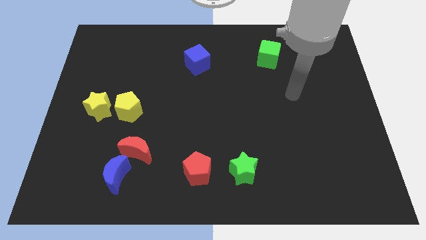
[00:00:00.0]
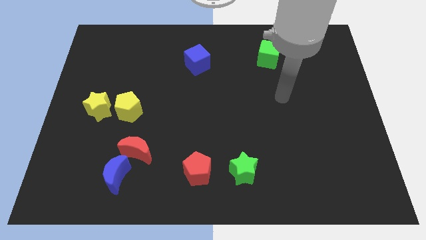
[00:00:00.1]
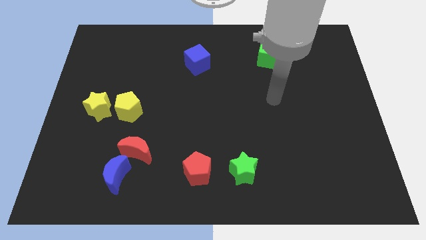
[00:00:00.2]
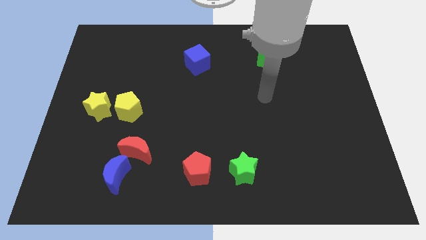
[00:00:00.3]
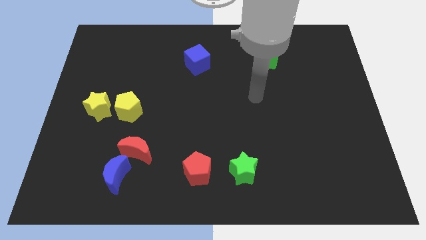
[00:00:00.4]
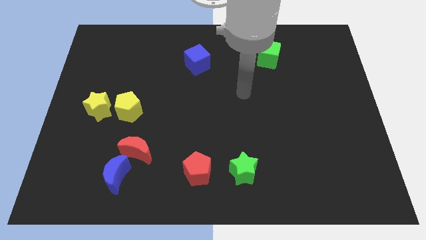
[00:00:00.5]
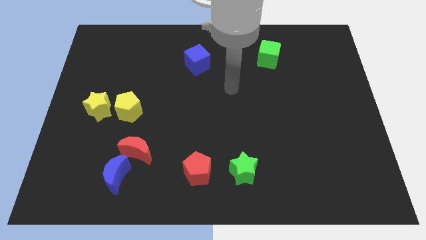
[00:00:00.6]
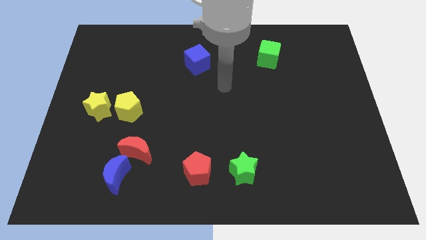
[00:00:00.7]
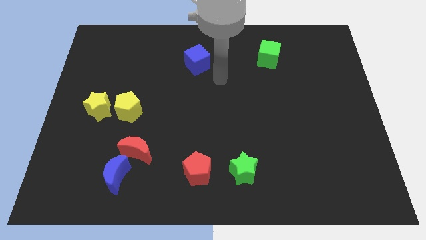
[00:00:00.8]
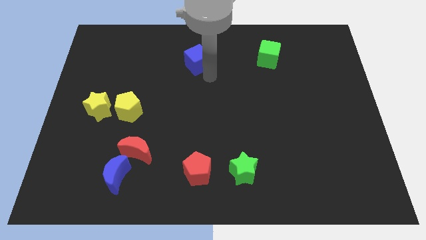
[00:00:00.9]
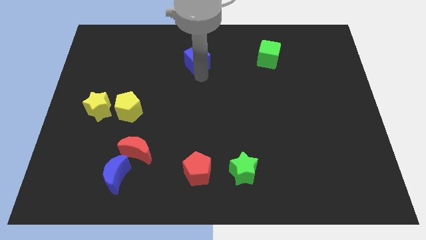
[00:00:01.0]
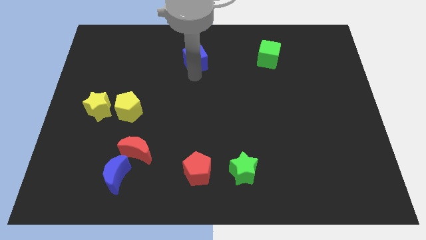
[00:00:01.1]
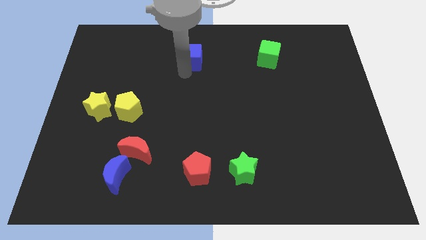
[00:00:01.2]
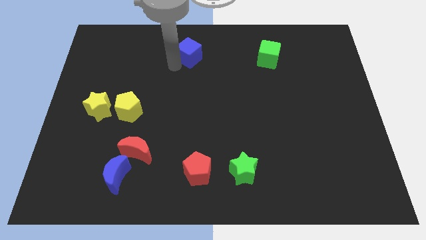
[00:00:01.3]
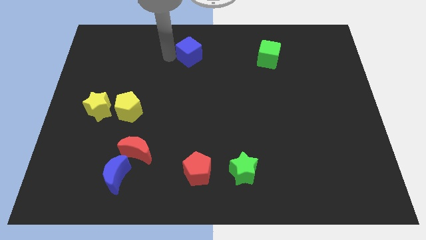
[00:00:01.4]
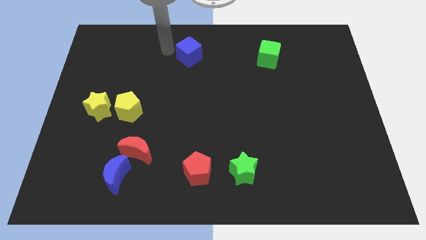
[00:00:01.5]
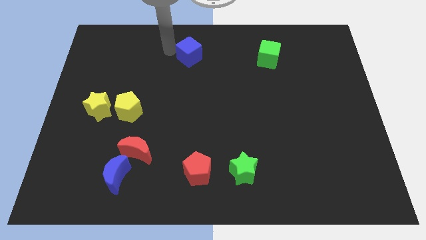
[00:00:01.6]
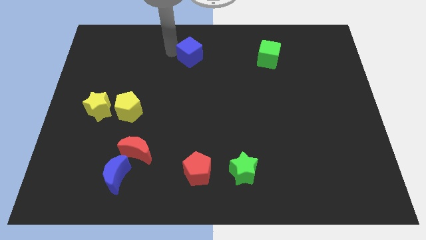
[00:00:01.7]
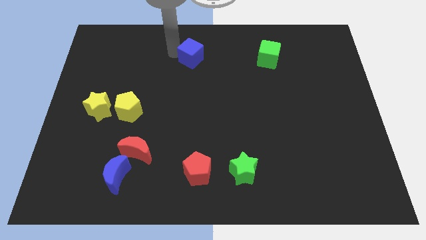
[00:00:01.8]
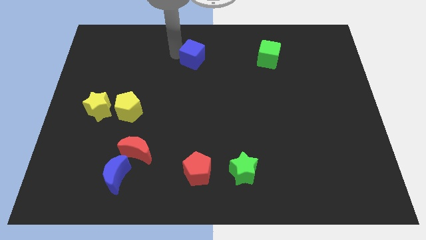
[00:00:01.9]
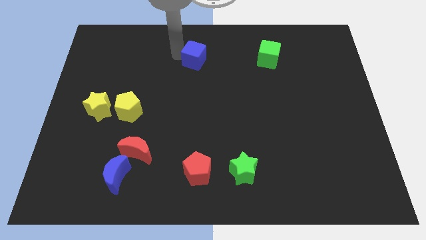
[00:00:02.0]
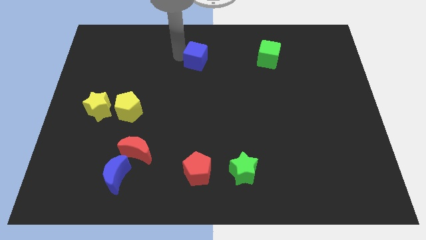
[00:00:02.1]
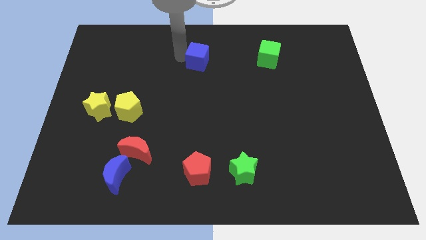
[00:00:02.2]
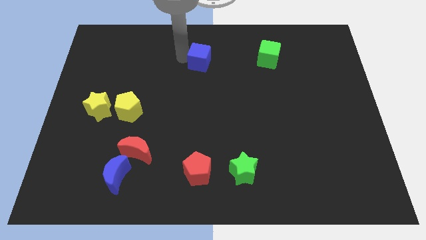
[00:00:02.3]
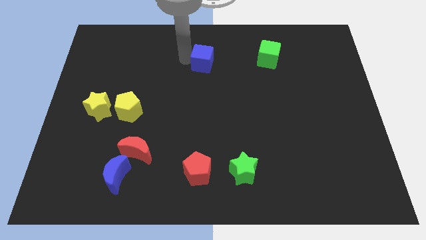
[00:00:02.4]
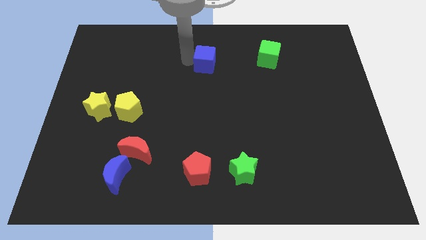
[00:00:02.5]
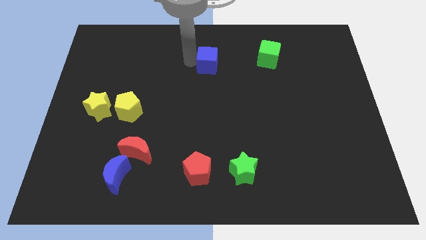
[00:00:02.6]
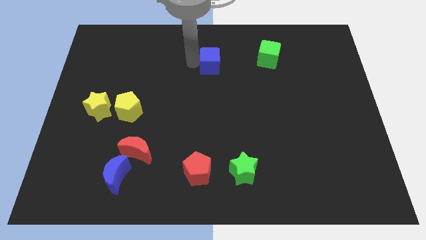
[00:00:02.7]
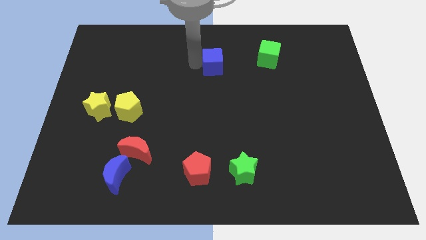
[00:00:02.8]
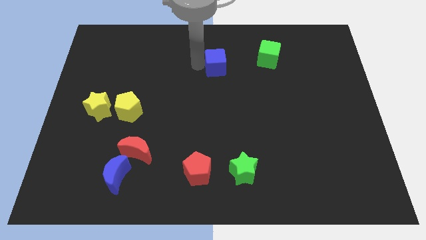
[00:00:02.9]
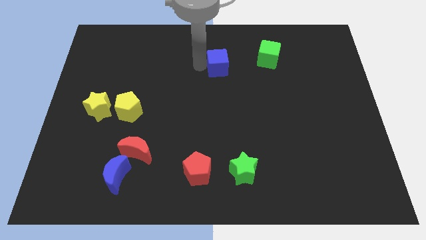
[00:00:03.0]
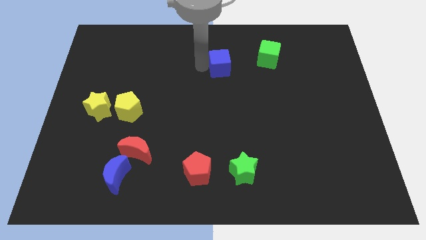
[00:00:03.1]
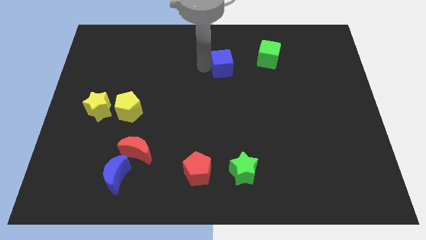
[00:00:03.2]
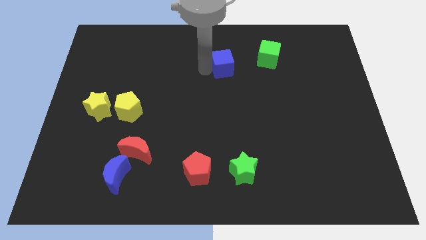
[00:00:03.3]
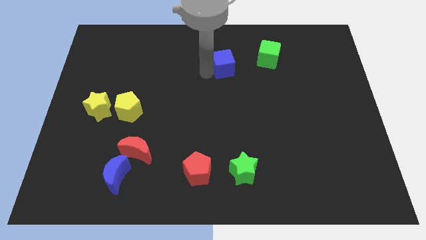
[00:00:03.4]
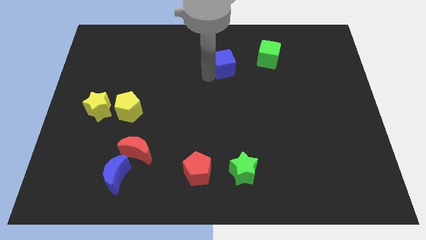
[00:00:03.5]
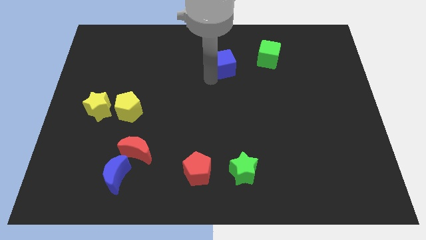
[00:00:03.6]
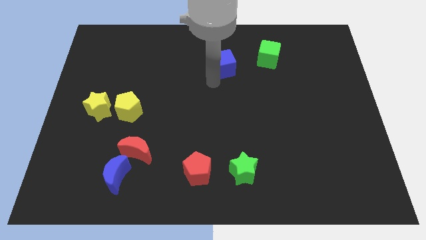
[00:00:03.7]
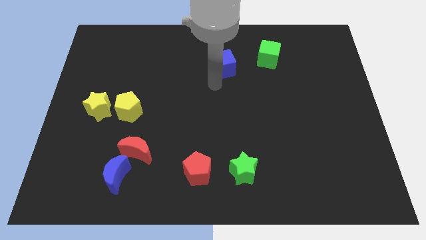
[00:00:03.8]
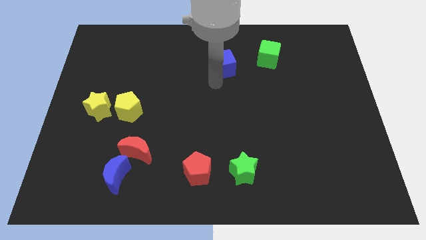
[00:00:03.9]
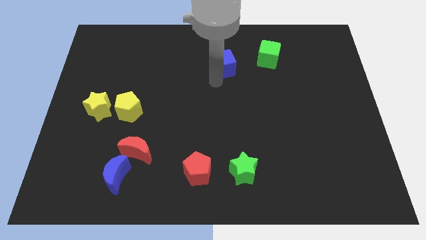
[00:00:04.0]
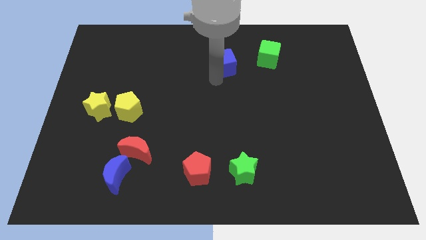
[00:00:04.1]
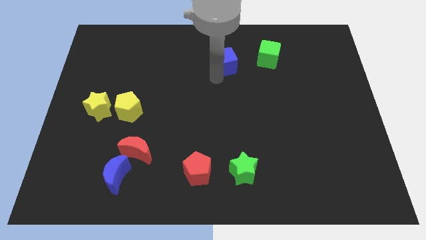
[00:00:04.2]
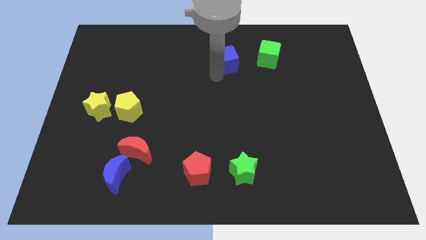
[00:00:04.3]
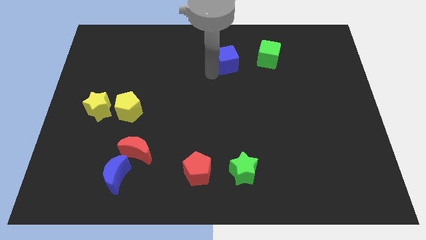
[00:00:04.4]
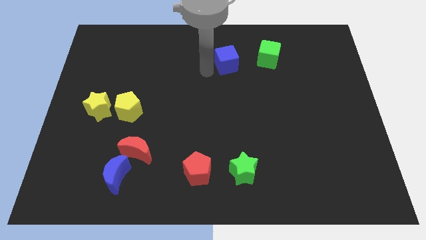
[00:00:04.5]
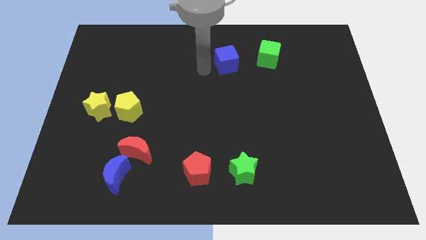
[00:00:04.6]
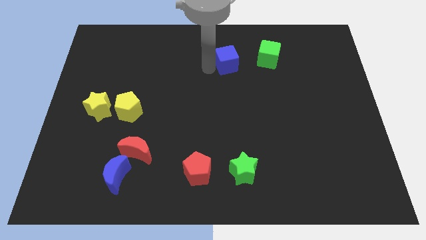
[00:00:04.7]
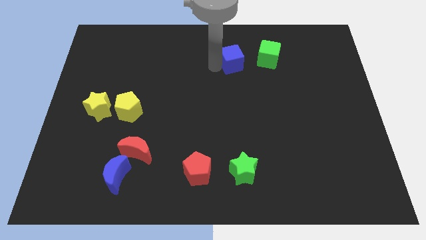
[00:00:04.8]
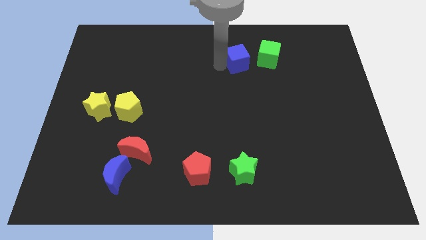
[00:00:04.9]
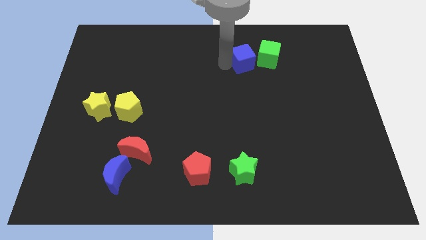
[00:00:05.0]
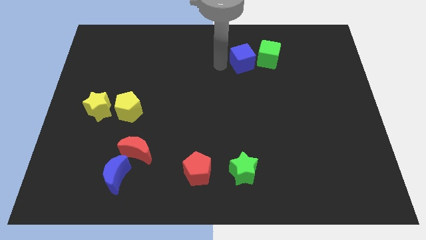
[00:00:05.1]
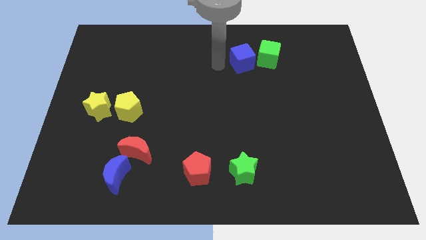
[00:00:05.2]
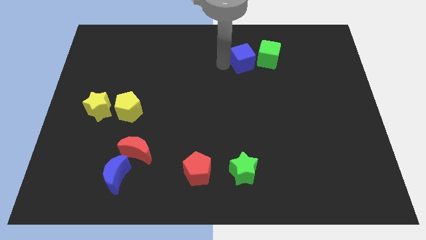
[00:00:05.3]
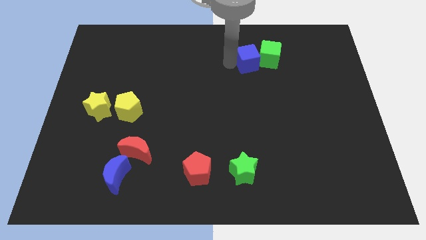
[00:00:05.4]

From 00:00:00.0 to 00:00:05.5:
slide the blue cube close to the green cube

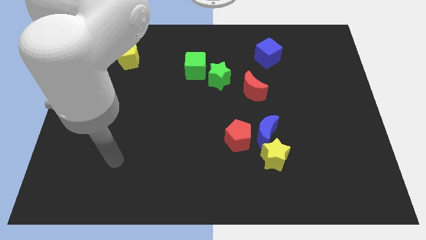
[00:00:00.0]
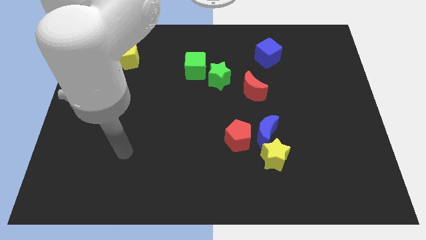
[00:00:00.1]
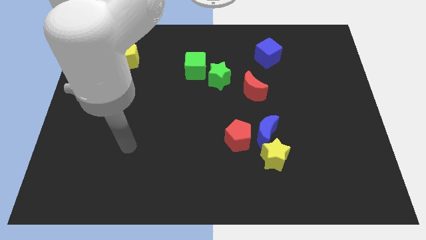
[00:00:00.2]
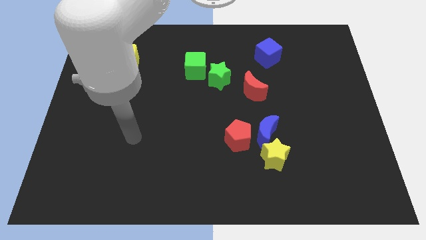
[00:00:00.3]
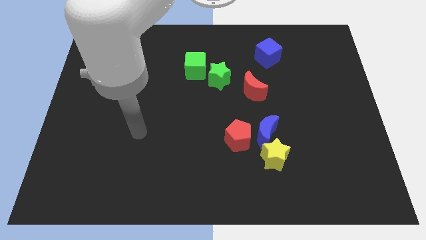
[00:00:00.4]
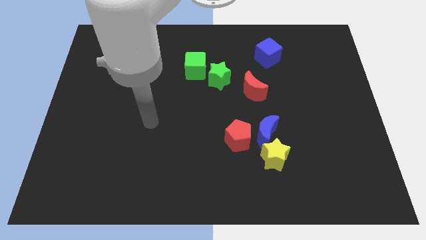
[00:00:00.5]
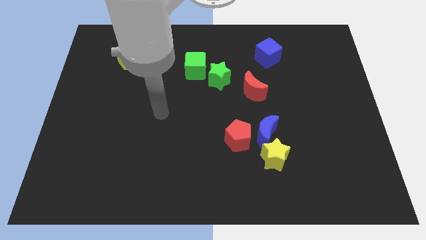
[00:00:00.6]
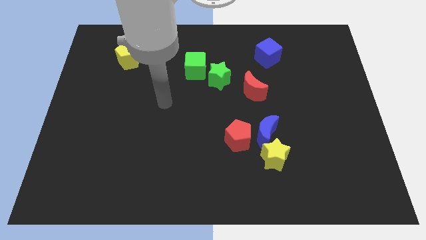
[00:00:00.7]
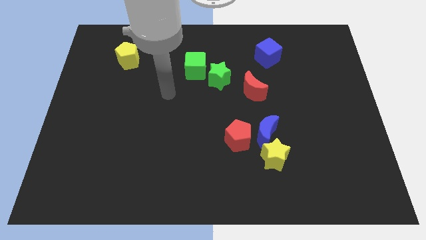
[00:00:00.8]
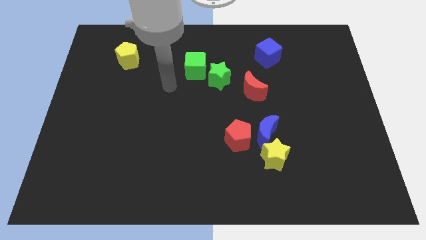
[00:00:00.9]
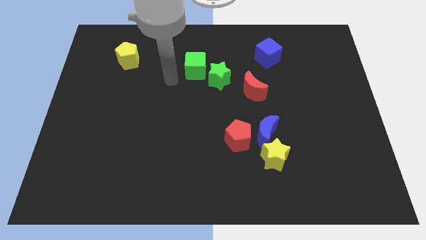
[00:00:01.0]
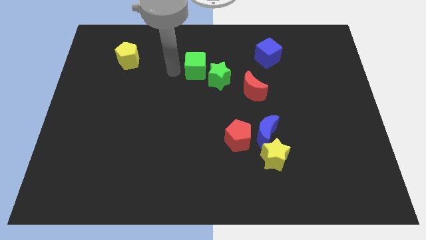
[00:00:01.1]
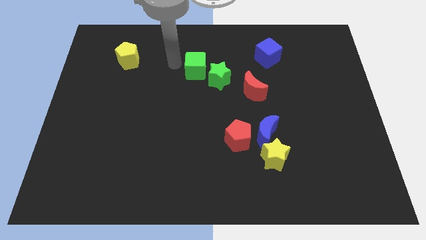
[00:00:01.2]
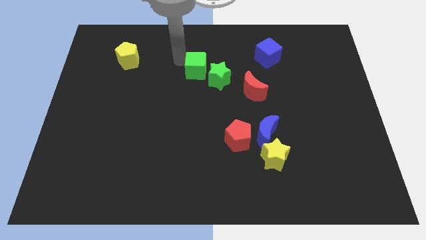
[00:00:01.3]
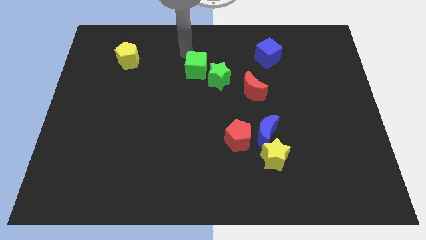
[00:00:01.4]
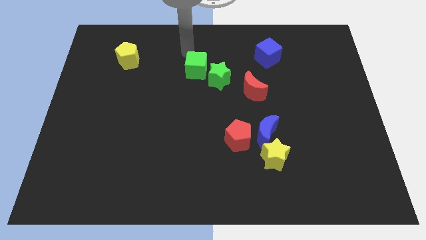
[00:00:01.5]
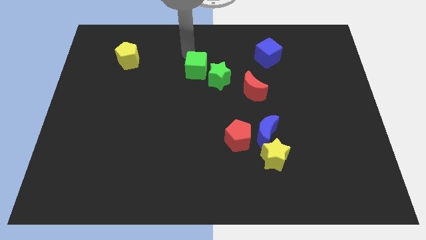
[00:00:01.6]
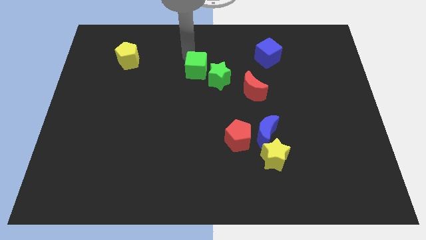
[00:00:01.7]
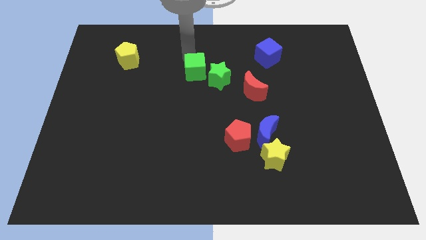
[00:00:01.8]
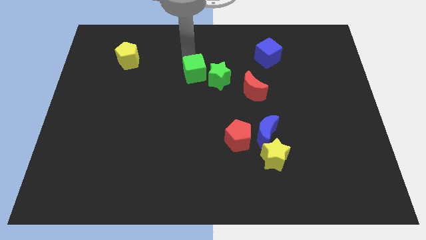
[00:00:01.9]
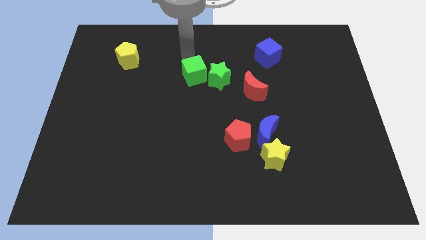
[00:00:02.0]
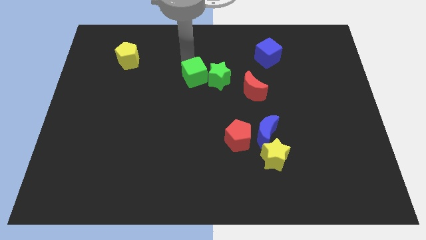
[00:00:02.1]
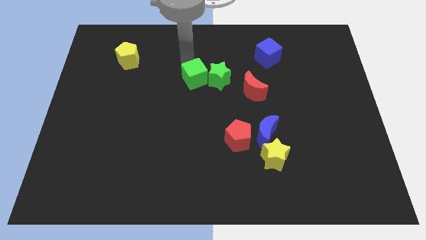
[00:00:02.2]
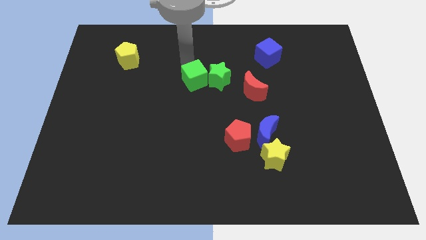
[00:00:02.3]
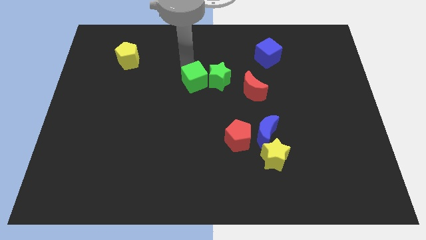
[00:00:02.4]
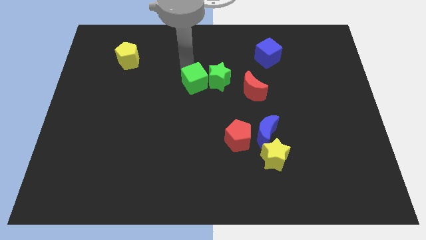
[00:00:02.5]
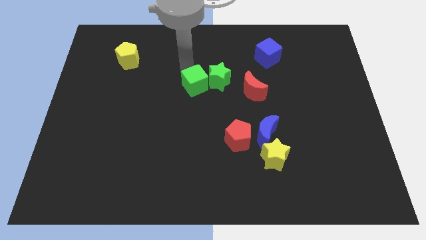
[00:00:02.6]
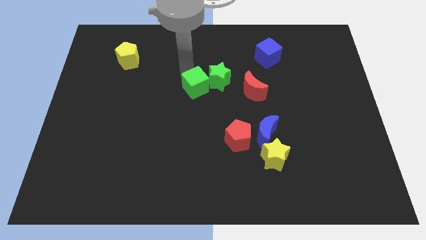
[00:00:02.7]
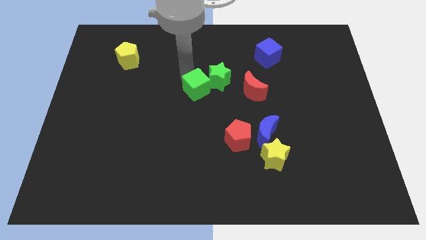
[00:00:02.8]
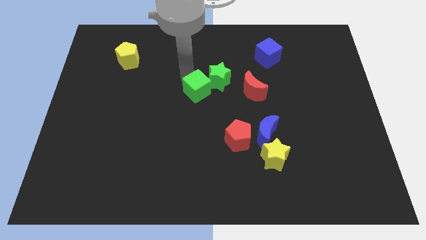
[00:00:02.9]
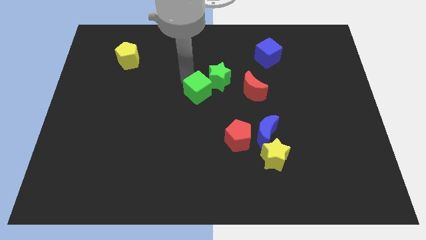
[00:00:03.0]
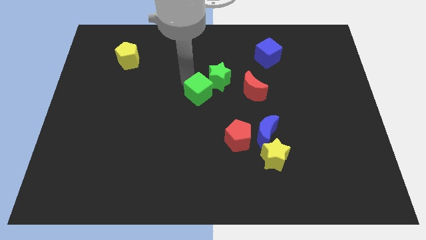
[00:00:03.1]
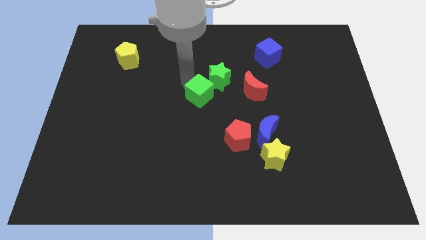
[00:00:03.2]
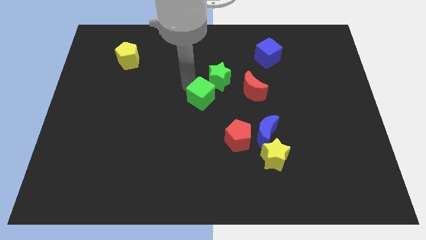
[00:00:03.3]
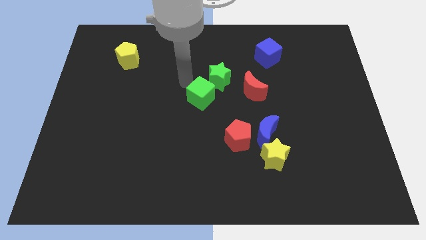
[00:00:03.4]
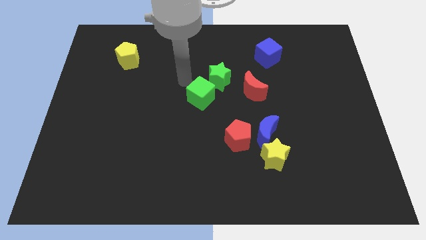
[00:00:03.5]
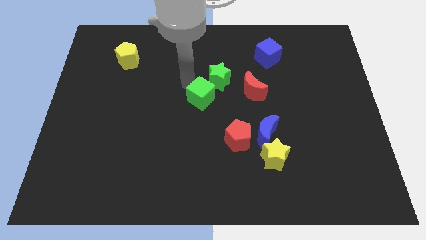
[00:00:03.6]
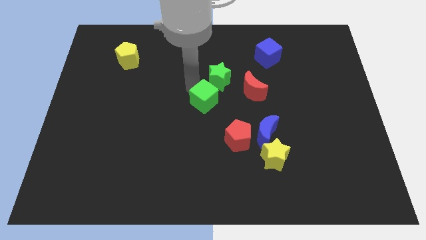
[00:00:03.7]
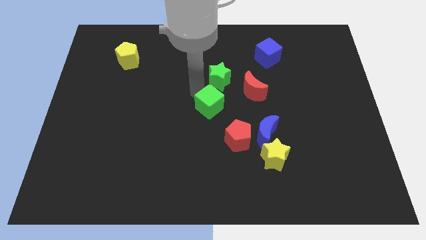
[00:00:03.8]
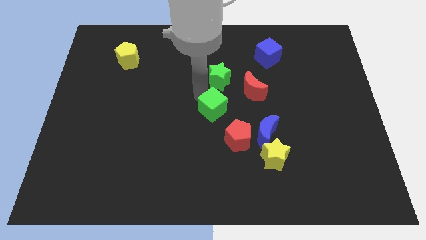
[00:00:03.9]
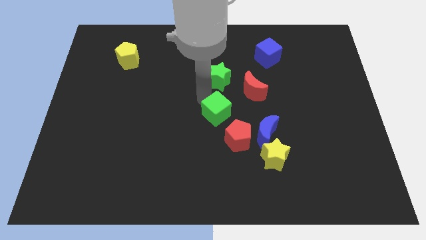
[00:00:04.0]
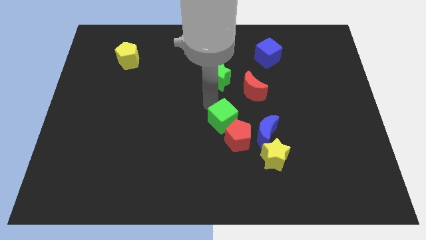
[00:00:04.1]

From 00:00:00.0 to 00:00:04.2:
put the green cube to the red pentagon
